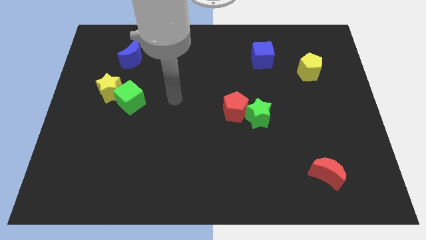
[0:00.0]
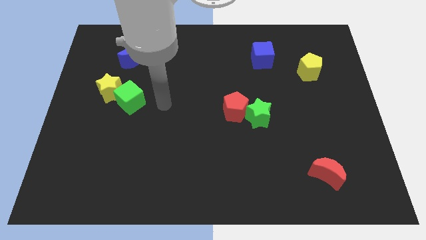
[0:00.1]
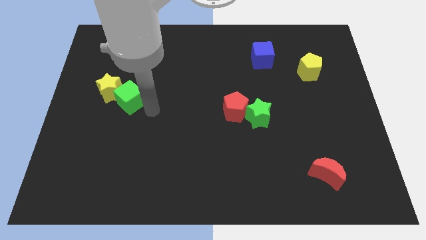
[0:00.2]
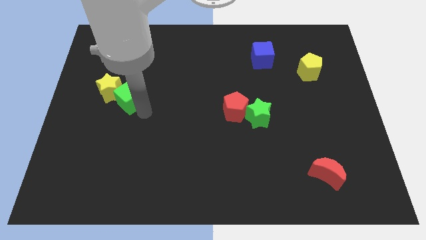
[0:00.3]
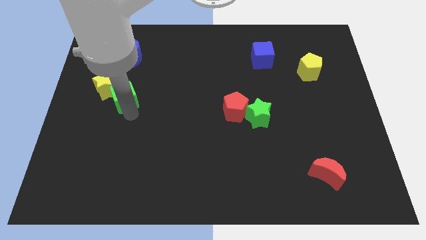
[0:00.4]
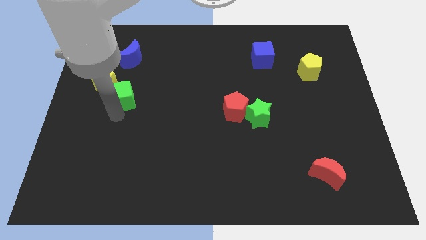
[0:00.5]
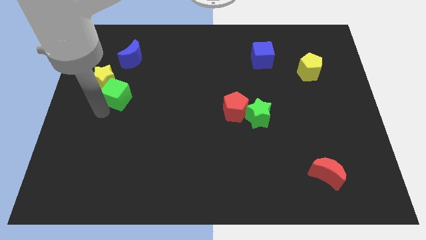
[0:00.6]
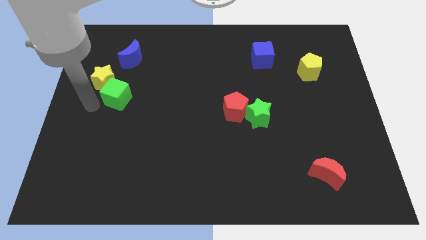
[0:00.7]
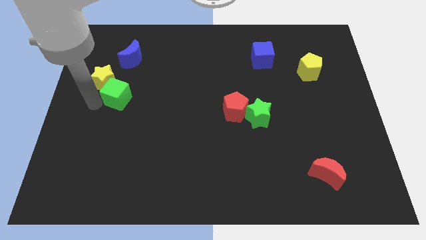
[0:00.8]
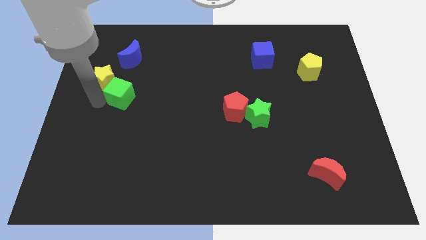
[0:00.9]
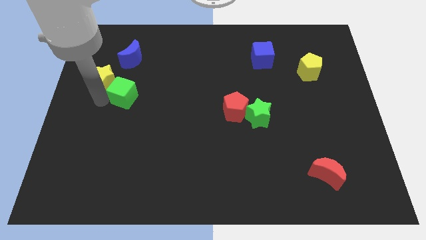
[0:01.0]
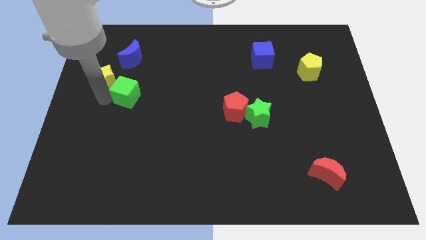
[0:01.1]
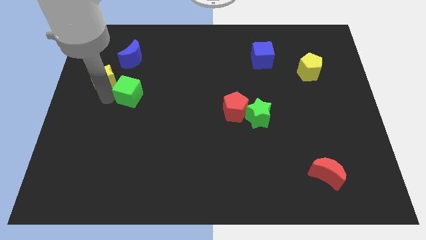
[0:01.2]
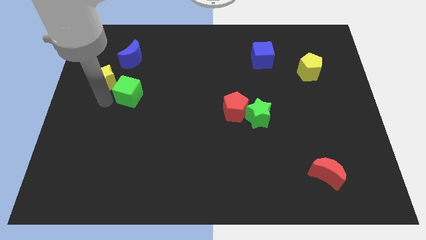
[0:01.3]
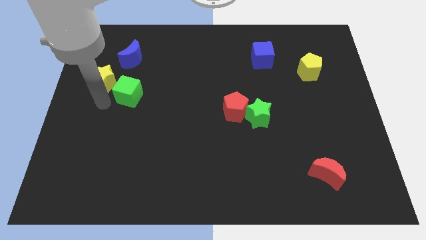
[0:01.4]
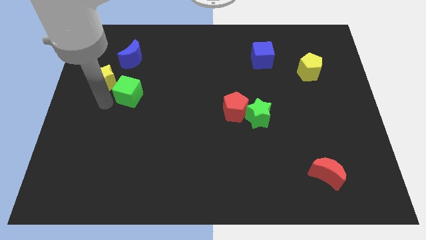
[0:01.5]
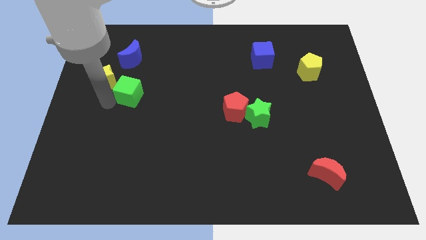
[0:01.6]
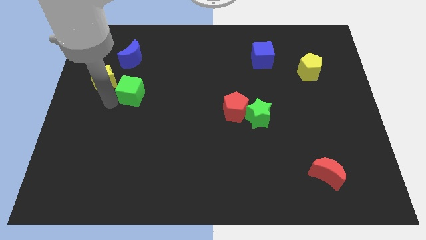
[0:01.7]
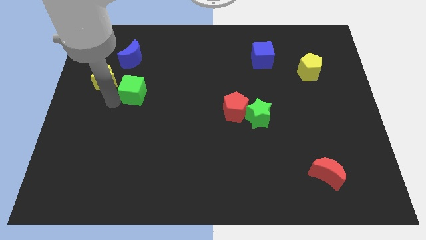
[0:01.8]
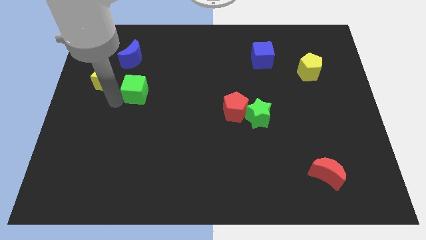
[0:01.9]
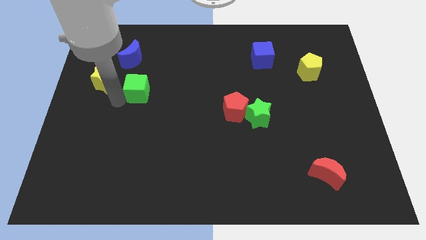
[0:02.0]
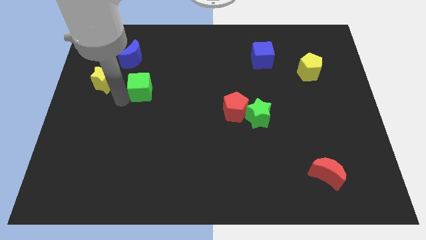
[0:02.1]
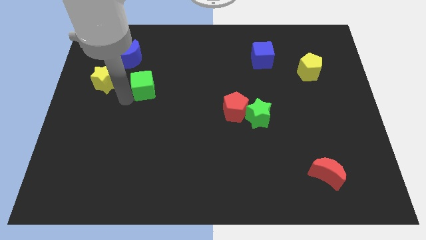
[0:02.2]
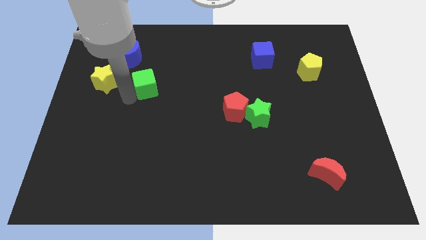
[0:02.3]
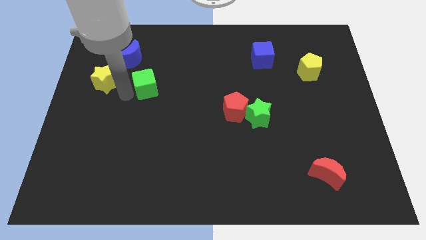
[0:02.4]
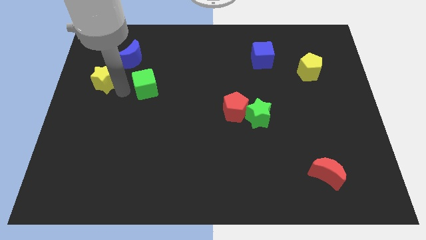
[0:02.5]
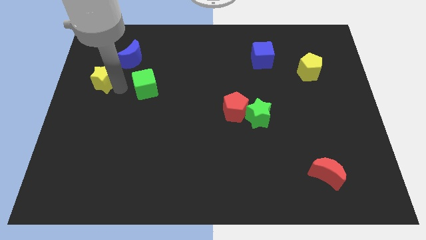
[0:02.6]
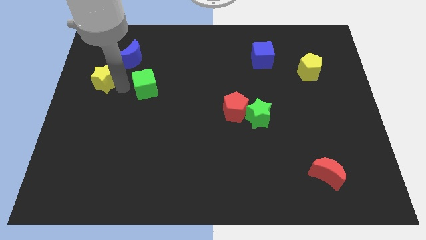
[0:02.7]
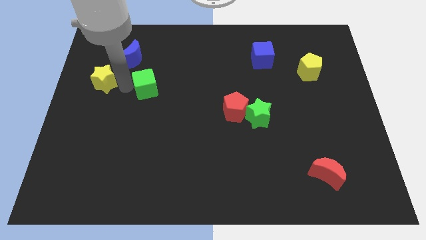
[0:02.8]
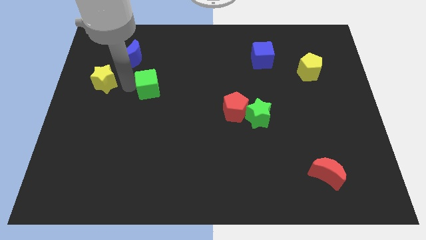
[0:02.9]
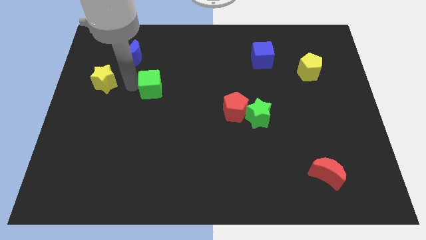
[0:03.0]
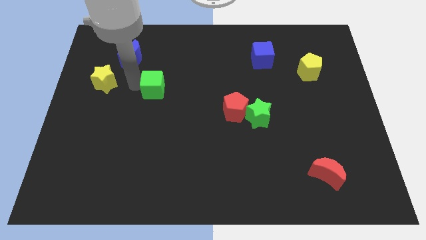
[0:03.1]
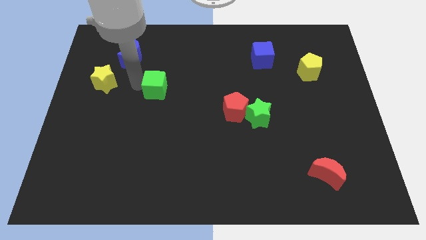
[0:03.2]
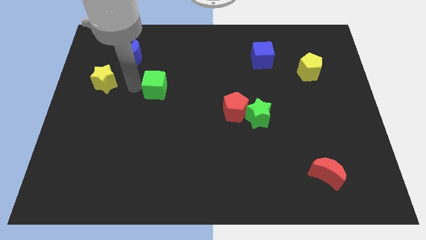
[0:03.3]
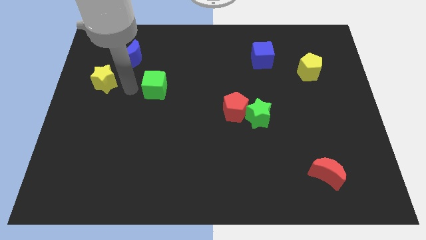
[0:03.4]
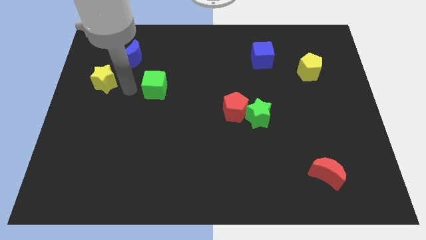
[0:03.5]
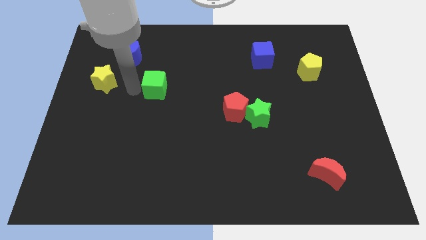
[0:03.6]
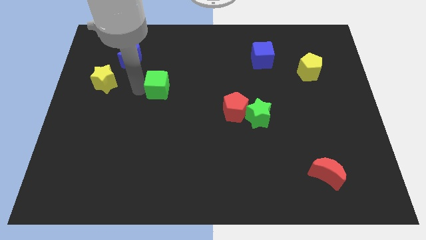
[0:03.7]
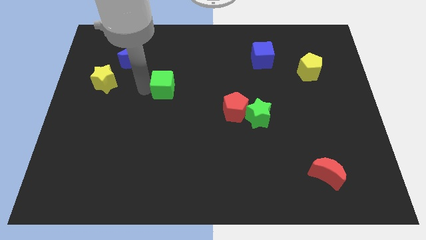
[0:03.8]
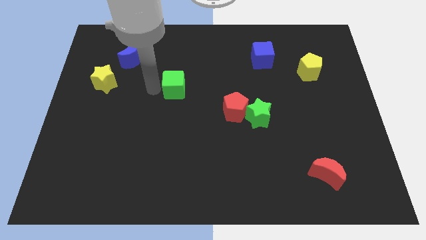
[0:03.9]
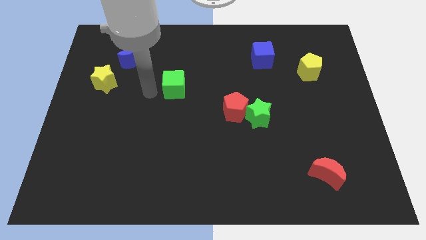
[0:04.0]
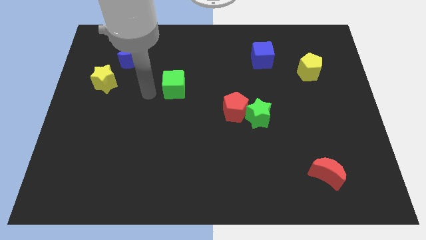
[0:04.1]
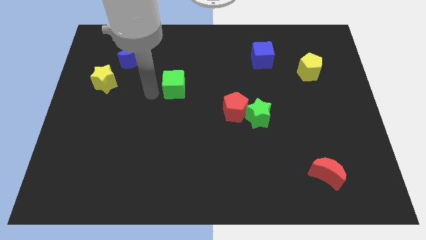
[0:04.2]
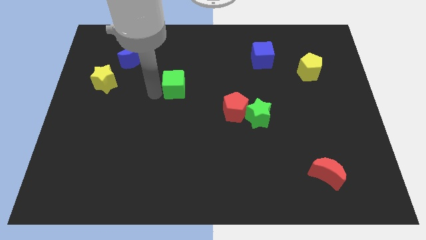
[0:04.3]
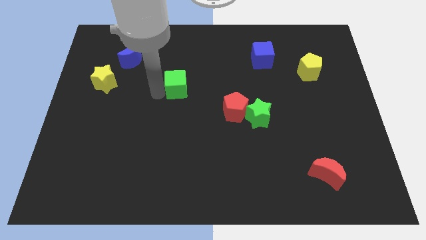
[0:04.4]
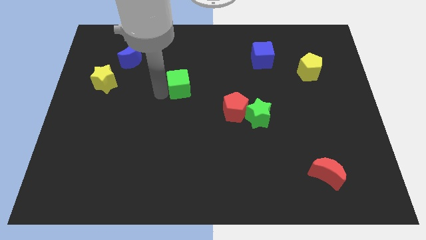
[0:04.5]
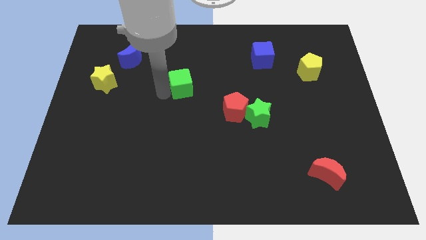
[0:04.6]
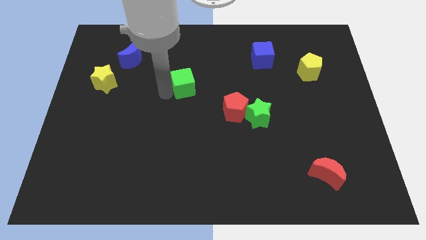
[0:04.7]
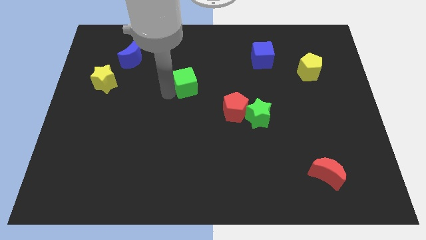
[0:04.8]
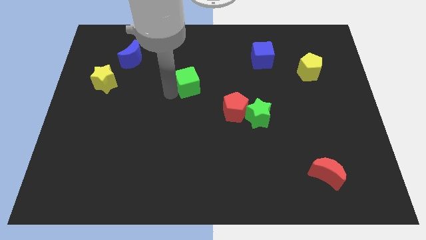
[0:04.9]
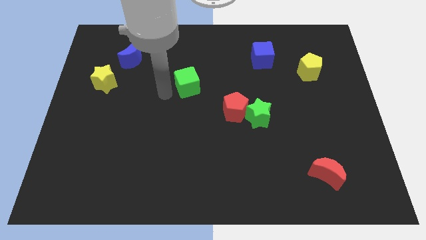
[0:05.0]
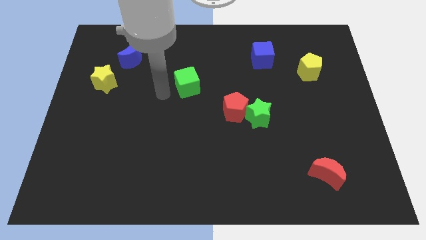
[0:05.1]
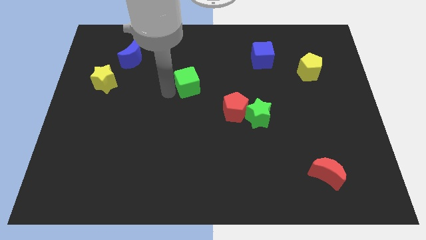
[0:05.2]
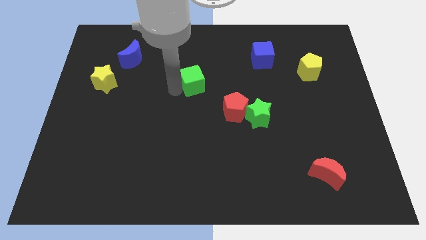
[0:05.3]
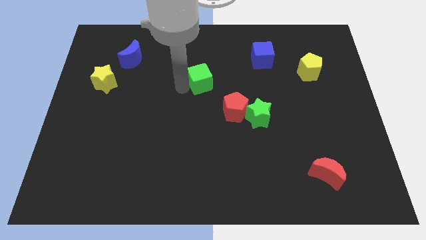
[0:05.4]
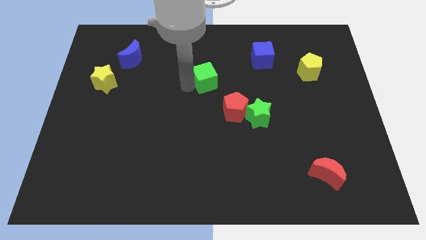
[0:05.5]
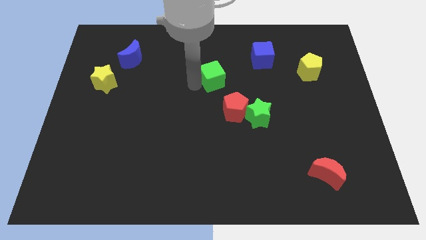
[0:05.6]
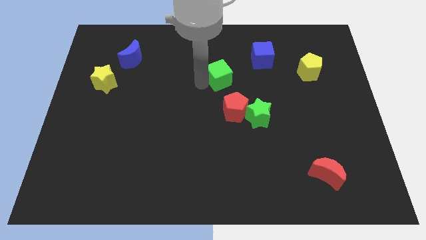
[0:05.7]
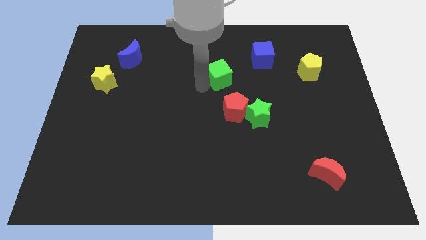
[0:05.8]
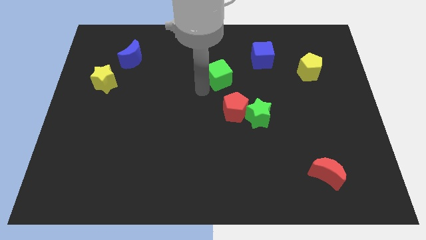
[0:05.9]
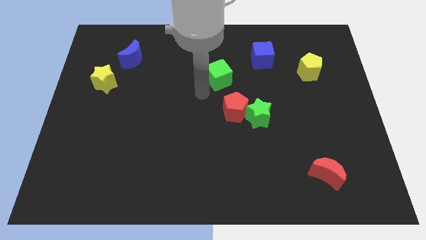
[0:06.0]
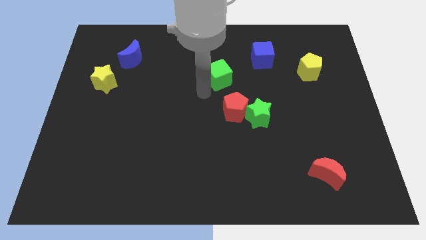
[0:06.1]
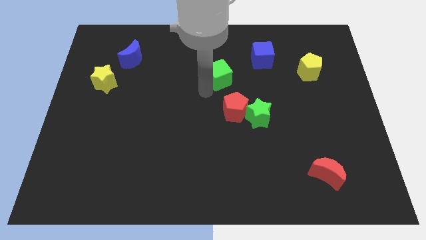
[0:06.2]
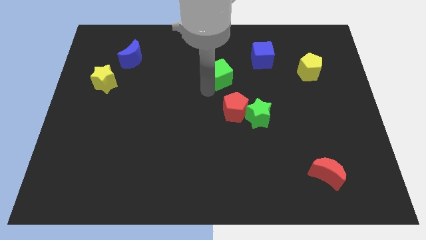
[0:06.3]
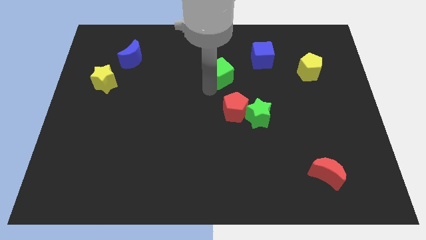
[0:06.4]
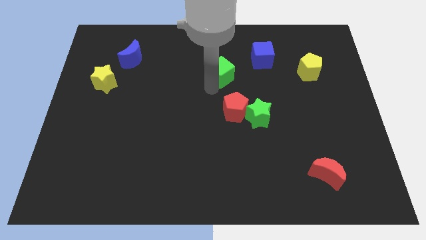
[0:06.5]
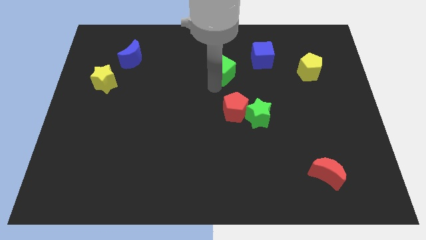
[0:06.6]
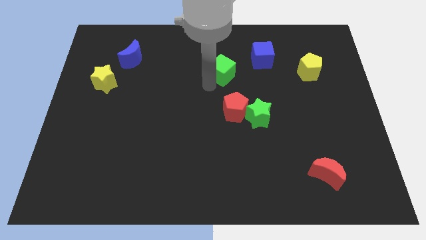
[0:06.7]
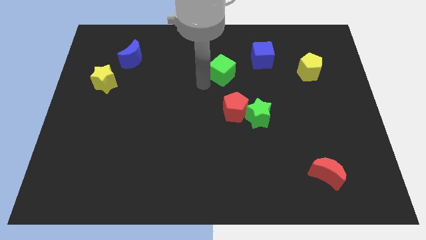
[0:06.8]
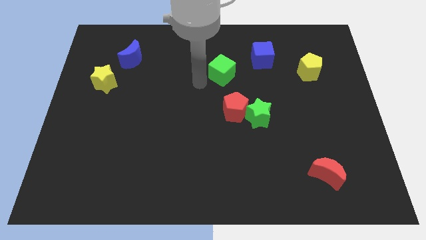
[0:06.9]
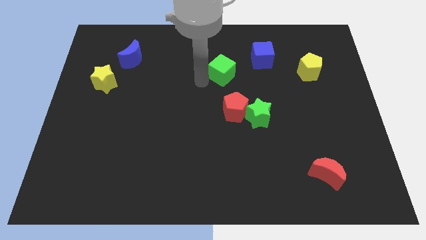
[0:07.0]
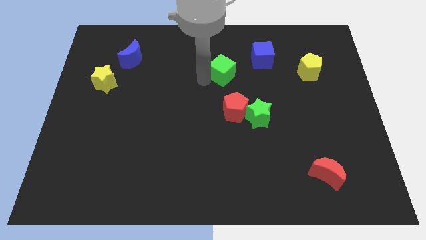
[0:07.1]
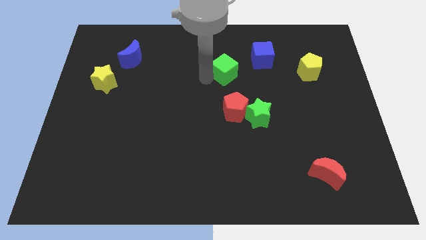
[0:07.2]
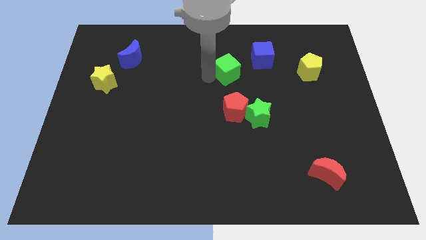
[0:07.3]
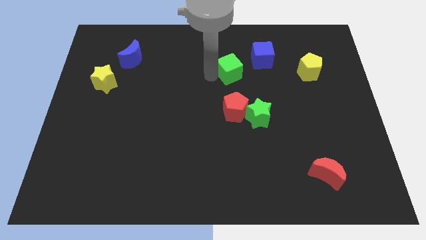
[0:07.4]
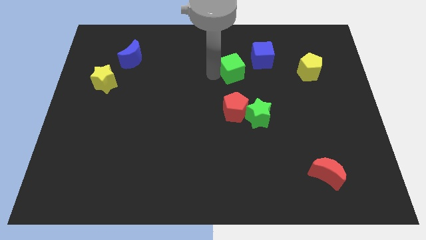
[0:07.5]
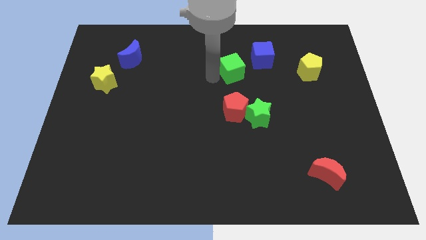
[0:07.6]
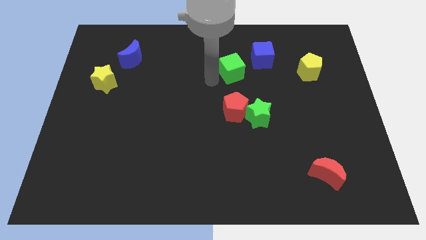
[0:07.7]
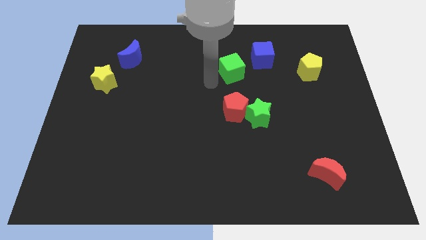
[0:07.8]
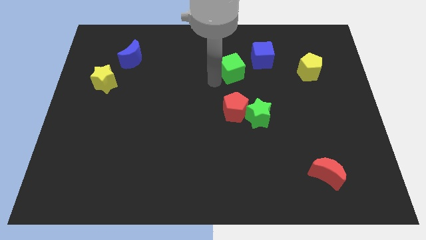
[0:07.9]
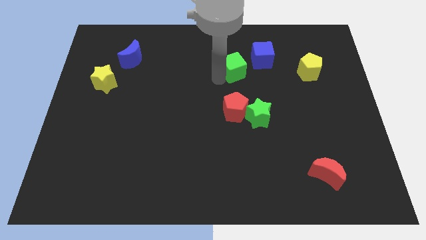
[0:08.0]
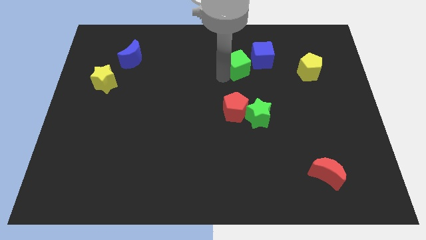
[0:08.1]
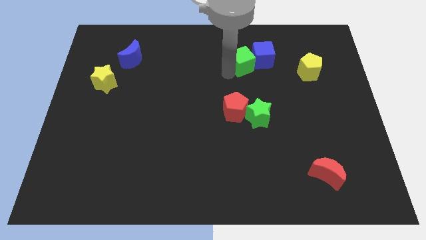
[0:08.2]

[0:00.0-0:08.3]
push the green cube next to the blue cube

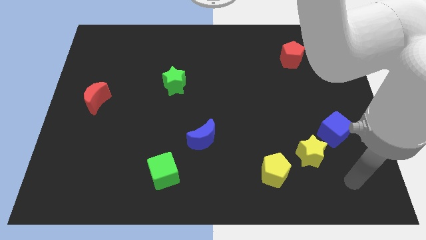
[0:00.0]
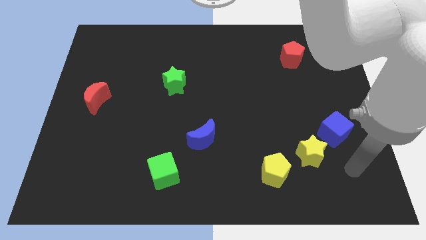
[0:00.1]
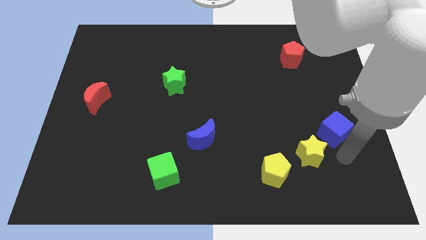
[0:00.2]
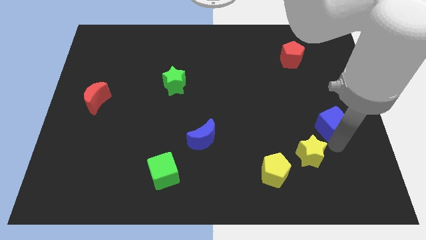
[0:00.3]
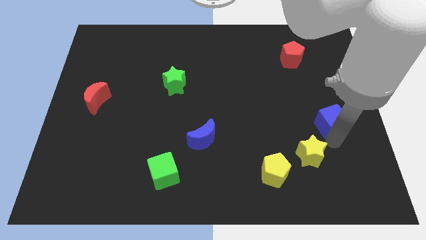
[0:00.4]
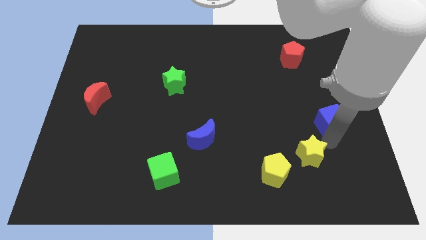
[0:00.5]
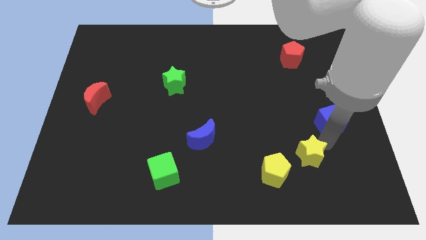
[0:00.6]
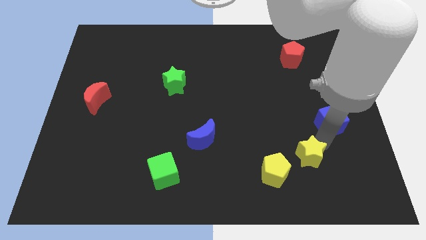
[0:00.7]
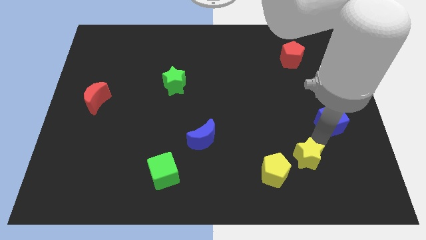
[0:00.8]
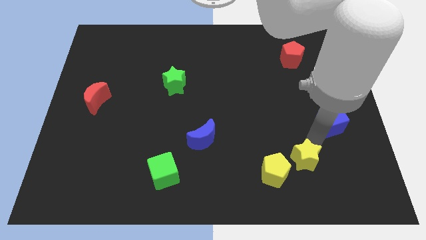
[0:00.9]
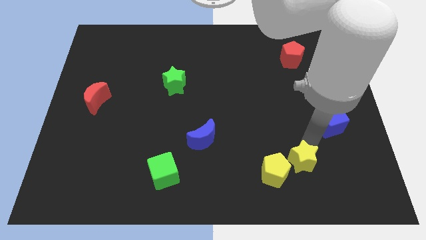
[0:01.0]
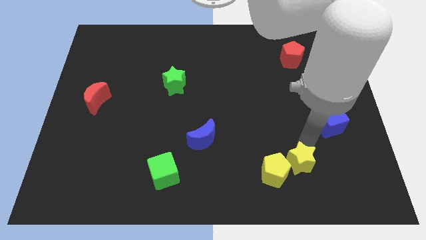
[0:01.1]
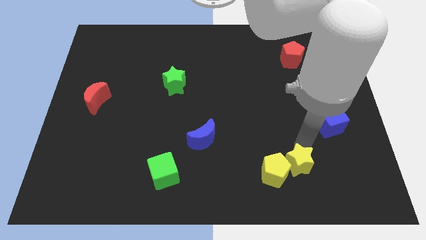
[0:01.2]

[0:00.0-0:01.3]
slide the yellow star close to the yellow pentagon
